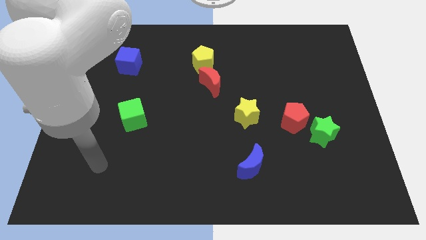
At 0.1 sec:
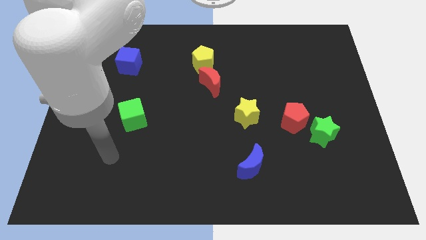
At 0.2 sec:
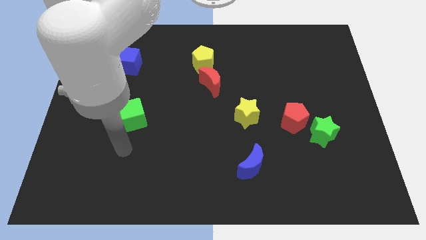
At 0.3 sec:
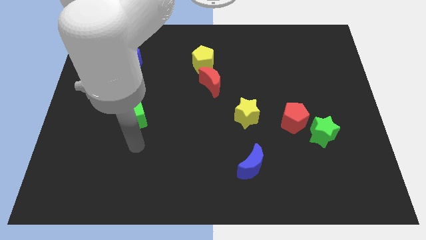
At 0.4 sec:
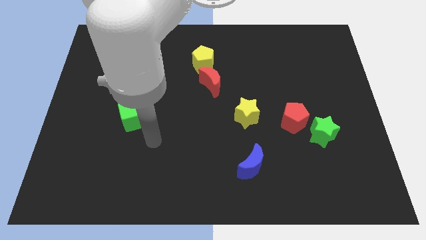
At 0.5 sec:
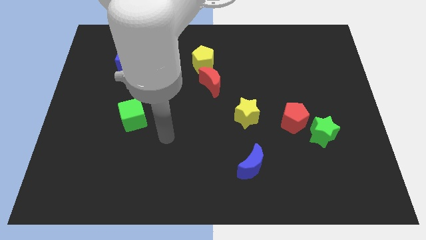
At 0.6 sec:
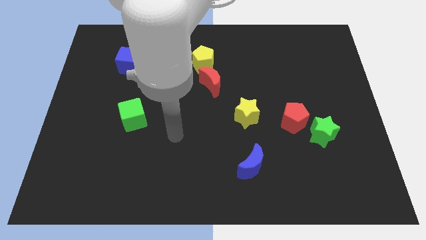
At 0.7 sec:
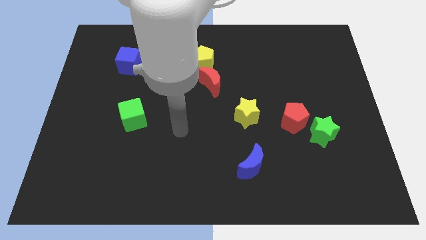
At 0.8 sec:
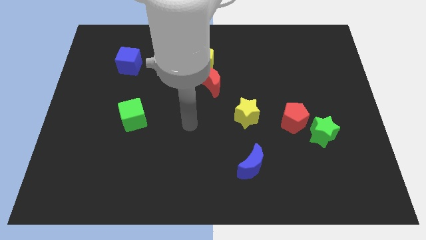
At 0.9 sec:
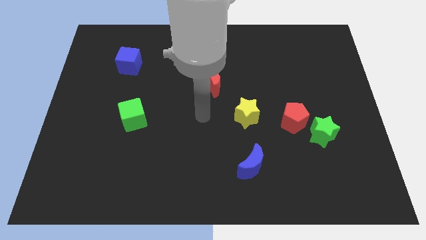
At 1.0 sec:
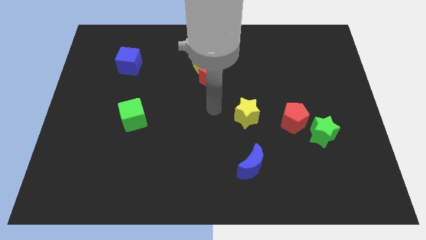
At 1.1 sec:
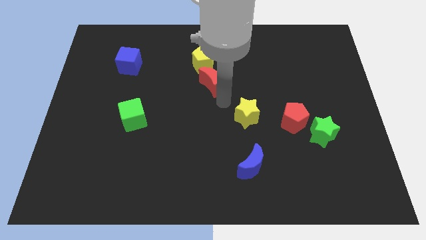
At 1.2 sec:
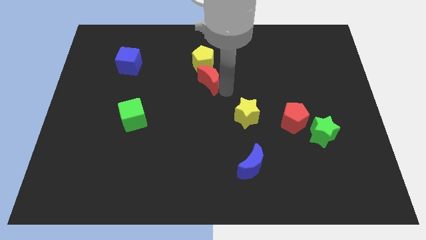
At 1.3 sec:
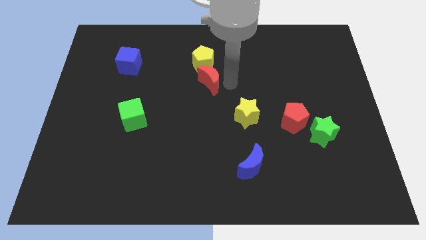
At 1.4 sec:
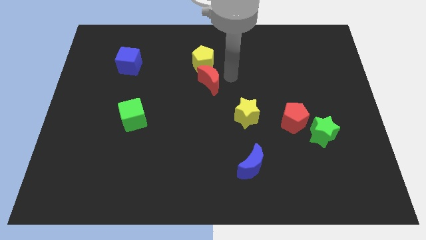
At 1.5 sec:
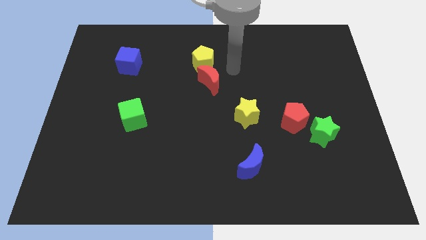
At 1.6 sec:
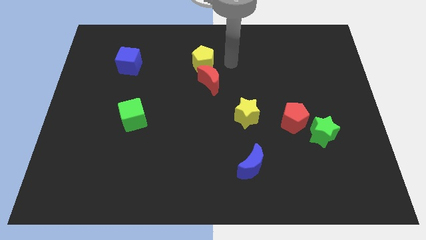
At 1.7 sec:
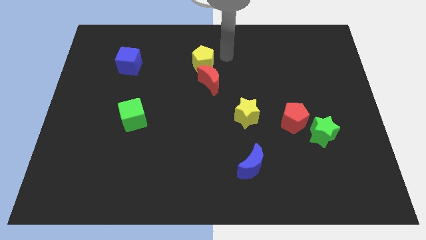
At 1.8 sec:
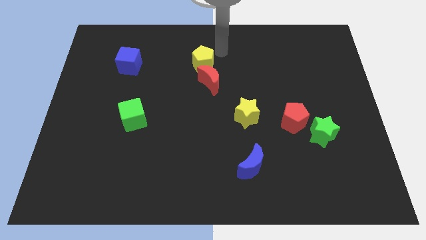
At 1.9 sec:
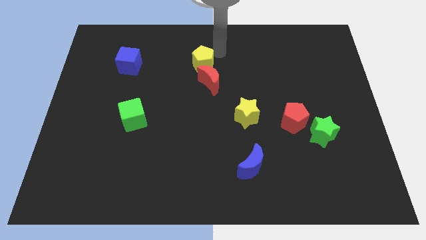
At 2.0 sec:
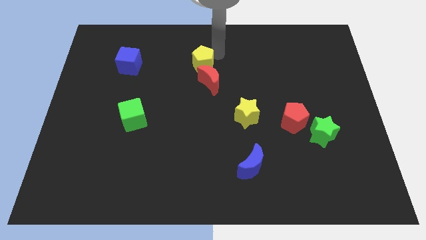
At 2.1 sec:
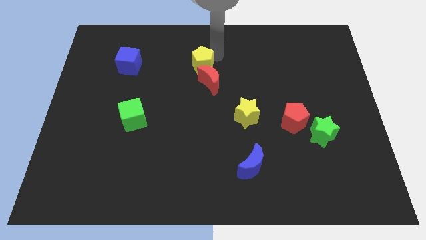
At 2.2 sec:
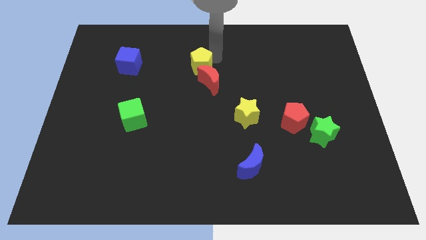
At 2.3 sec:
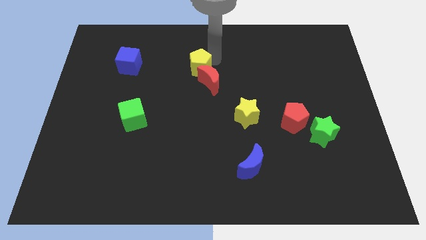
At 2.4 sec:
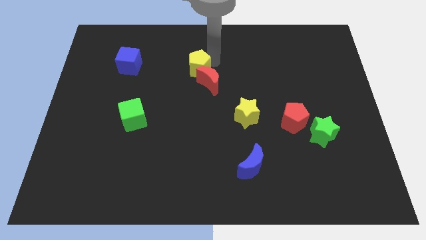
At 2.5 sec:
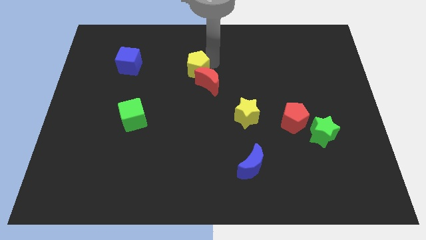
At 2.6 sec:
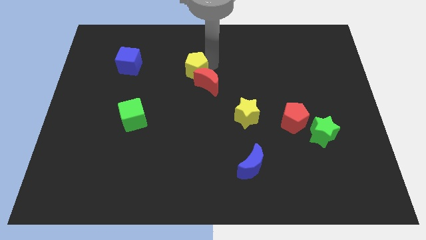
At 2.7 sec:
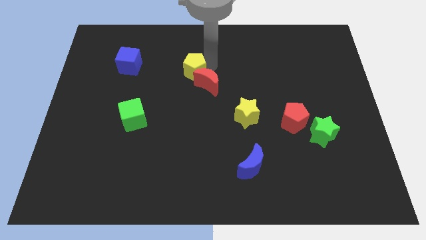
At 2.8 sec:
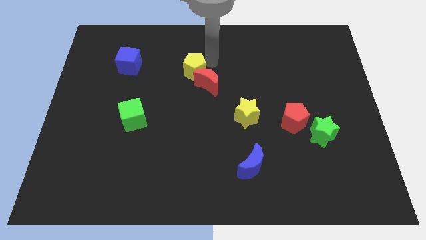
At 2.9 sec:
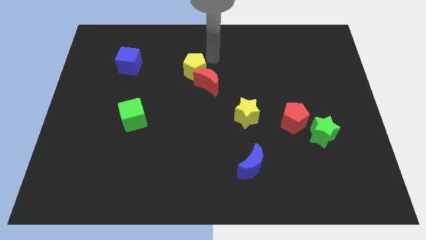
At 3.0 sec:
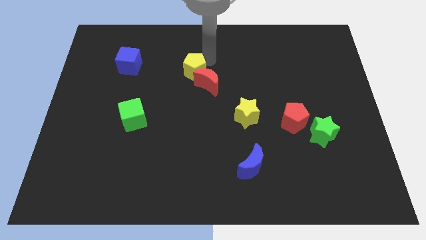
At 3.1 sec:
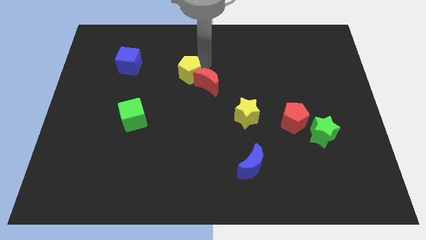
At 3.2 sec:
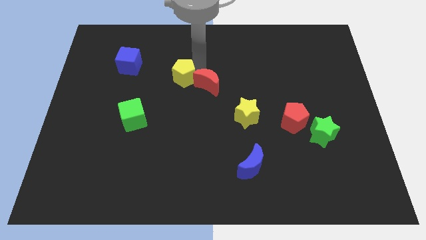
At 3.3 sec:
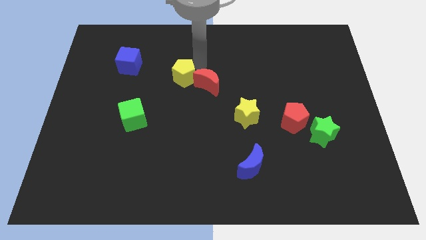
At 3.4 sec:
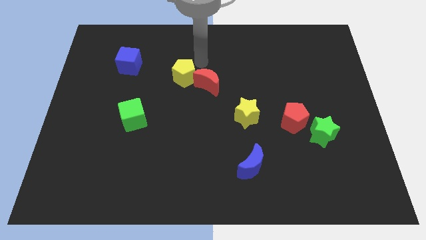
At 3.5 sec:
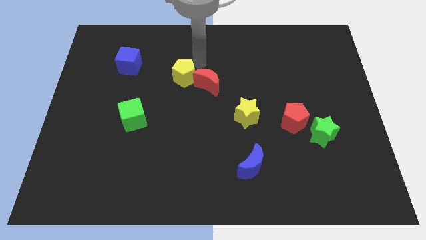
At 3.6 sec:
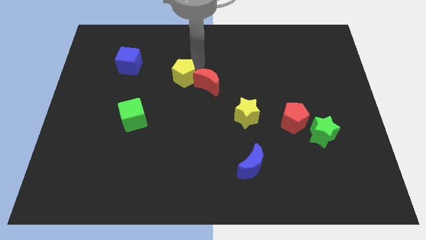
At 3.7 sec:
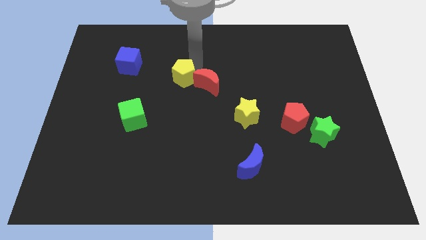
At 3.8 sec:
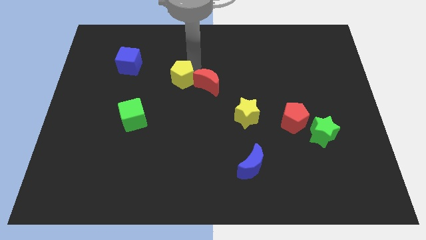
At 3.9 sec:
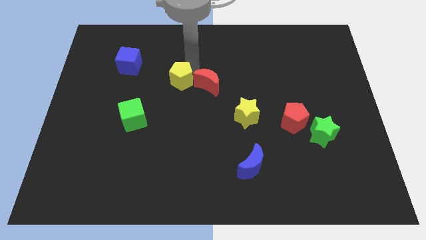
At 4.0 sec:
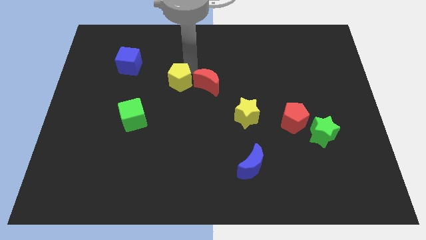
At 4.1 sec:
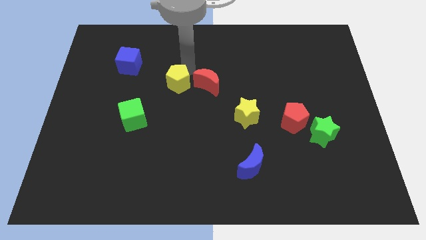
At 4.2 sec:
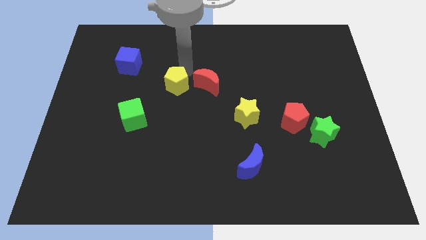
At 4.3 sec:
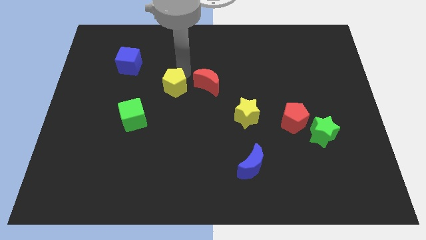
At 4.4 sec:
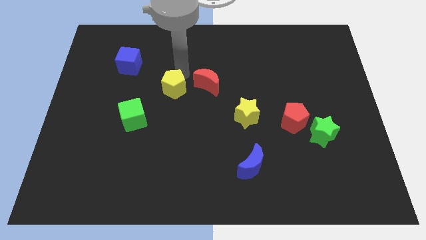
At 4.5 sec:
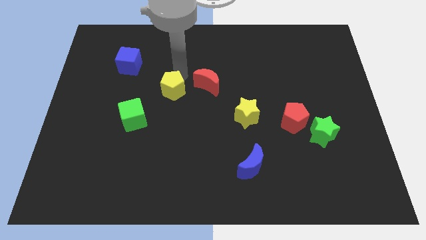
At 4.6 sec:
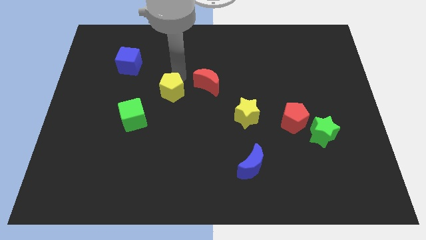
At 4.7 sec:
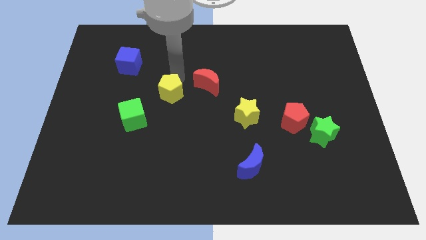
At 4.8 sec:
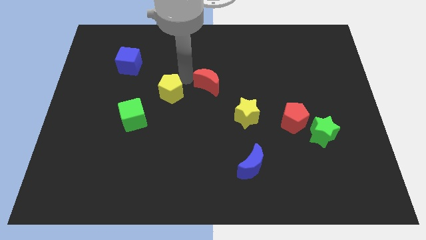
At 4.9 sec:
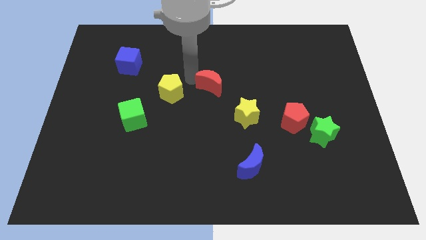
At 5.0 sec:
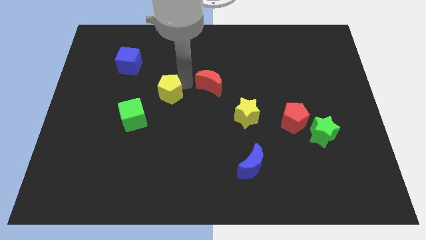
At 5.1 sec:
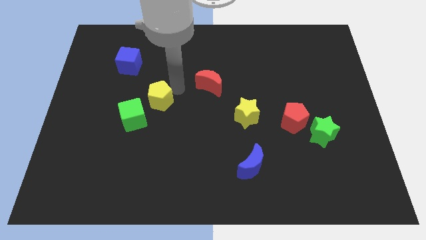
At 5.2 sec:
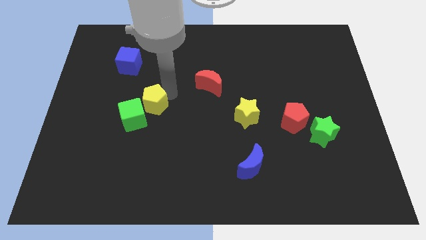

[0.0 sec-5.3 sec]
slide the yellow pentagon to the green cube

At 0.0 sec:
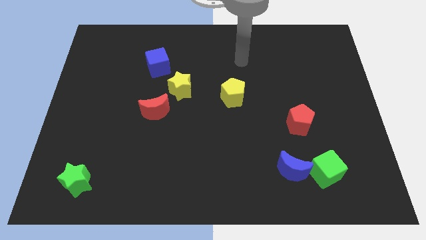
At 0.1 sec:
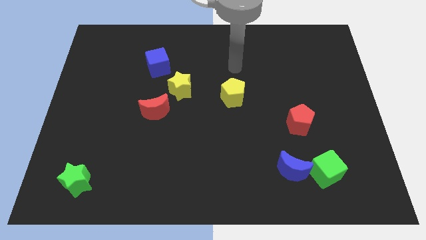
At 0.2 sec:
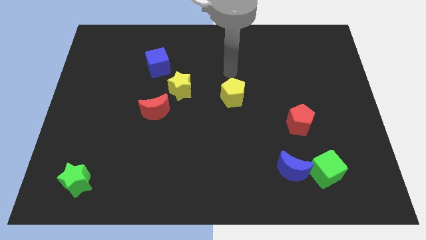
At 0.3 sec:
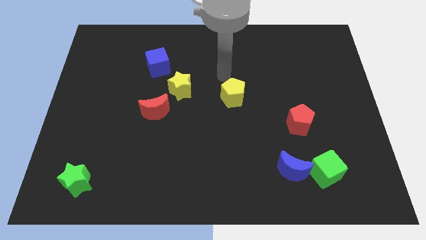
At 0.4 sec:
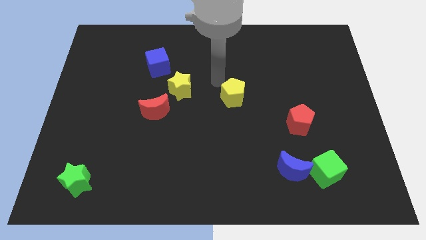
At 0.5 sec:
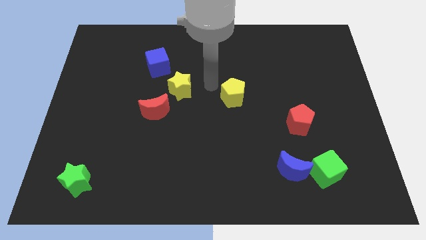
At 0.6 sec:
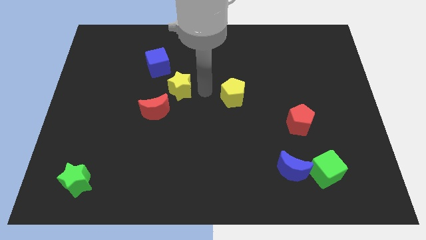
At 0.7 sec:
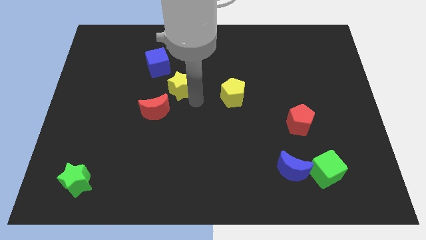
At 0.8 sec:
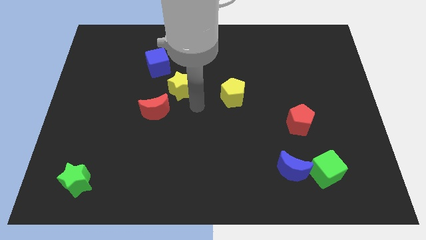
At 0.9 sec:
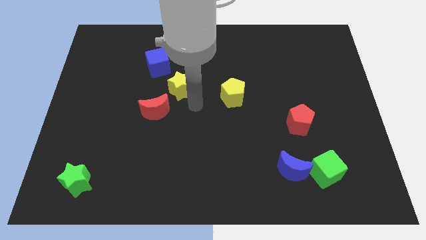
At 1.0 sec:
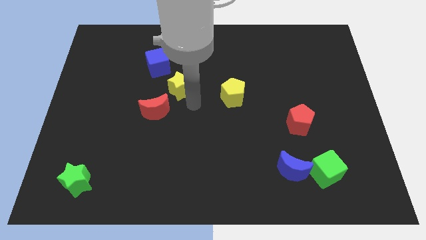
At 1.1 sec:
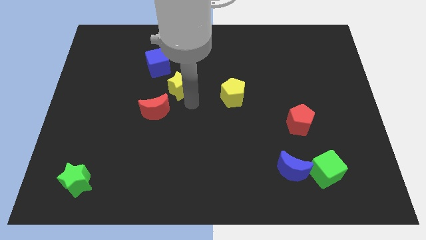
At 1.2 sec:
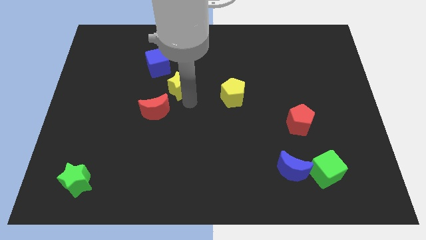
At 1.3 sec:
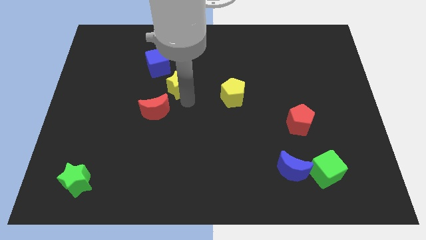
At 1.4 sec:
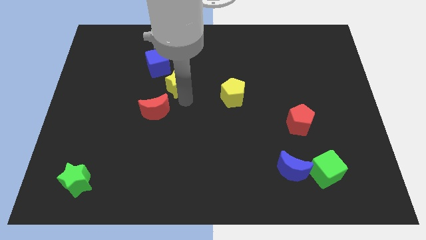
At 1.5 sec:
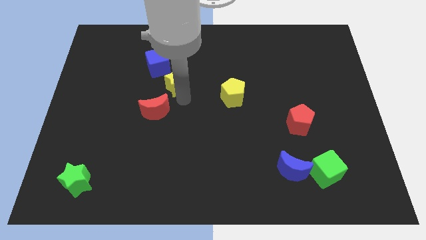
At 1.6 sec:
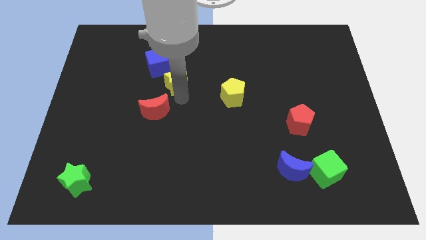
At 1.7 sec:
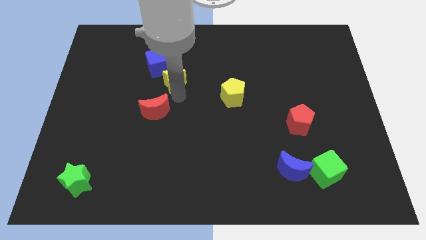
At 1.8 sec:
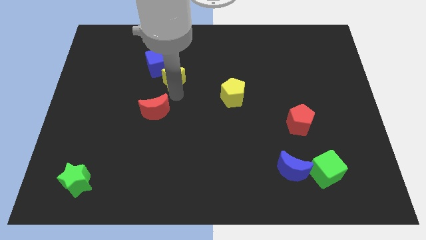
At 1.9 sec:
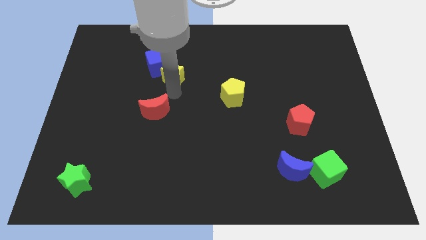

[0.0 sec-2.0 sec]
push the yellow star next to the blue cube
